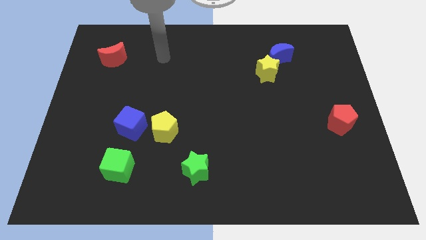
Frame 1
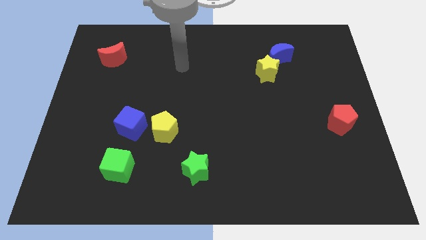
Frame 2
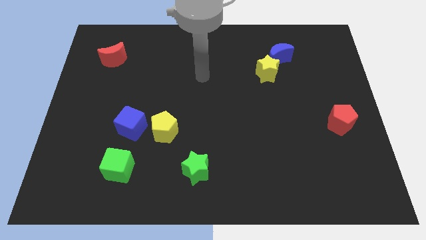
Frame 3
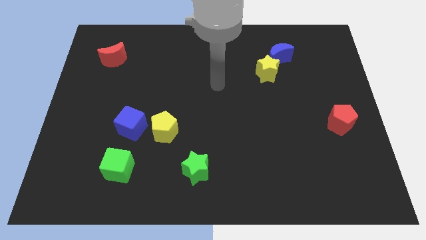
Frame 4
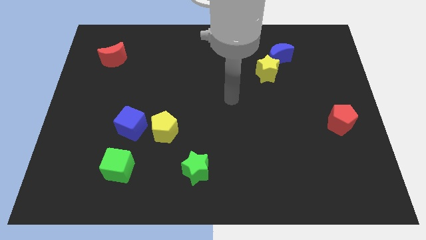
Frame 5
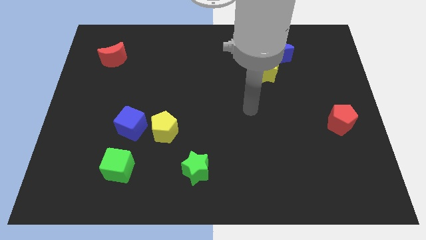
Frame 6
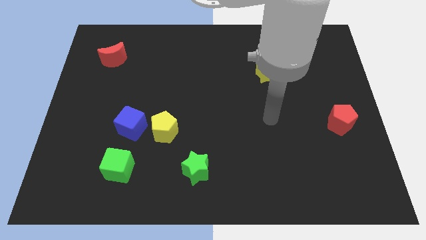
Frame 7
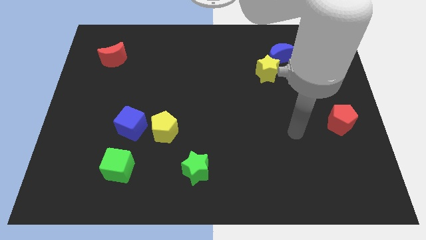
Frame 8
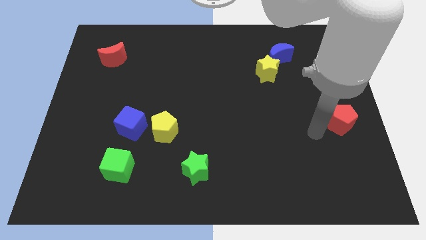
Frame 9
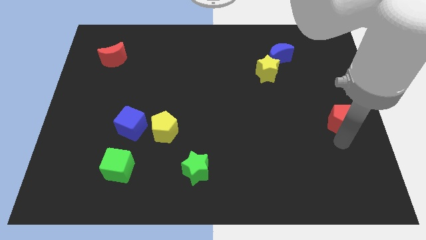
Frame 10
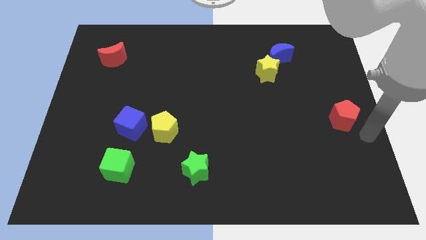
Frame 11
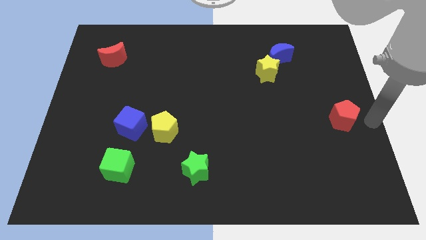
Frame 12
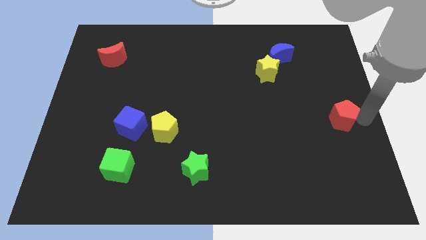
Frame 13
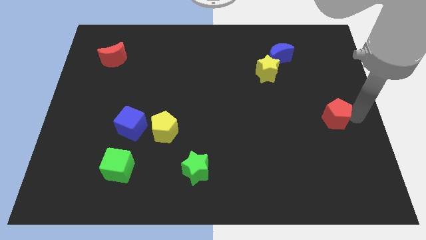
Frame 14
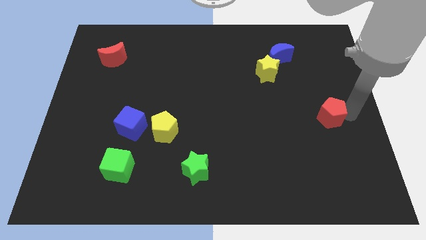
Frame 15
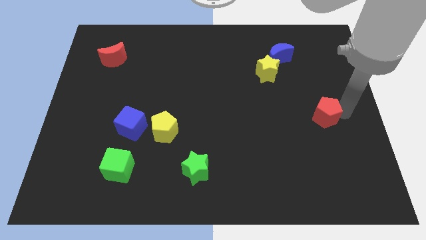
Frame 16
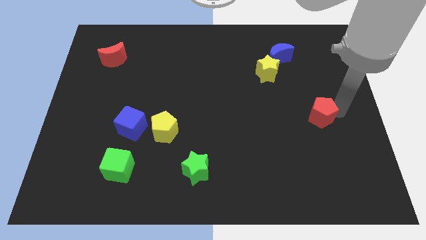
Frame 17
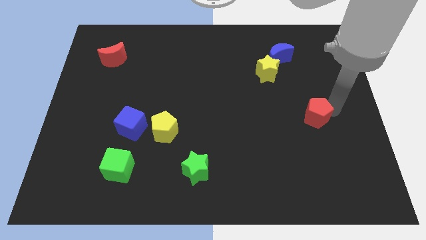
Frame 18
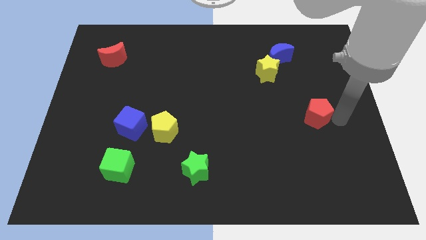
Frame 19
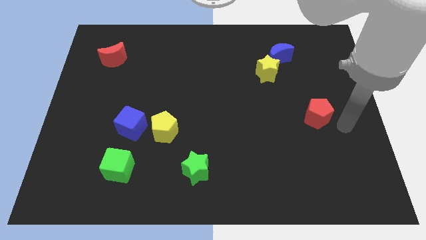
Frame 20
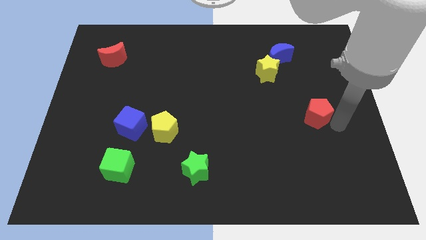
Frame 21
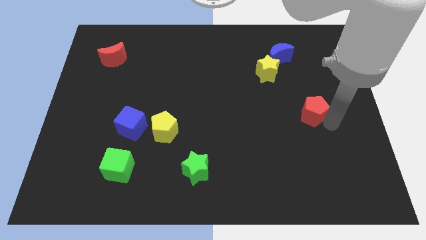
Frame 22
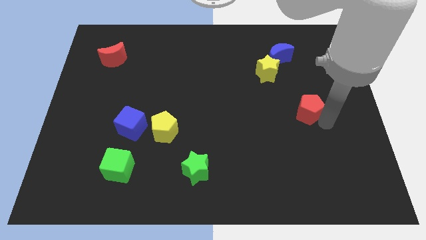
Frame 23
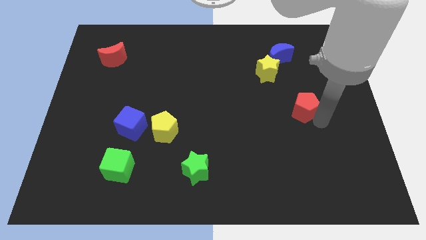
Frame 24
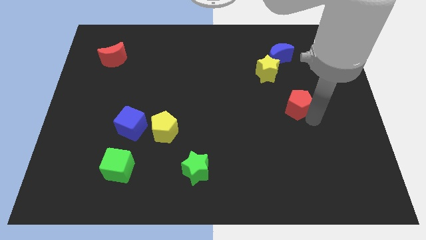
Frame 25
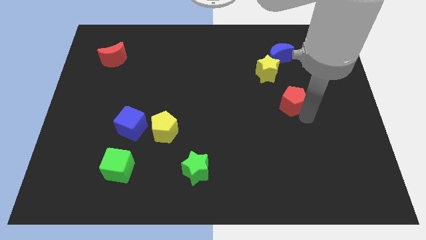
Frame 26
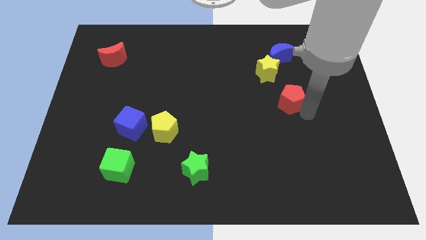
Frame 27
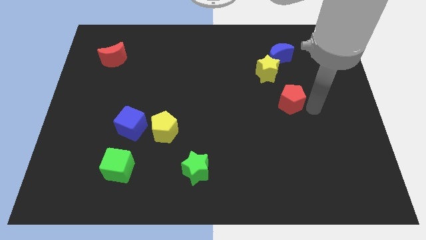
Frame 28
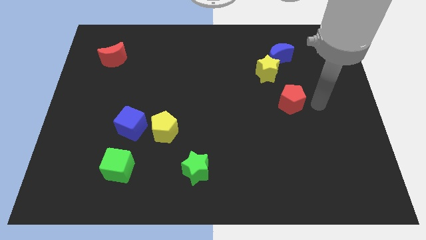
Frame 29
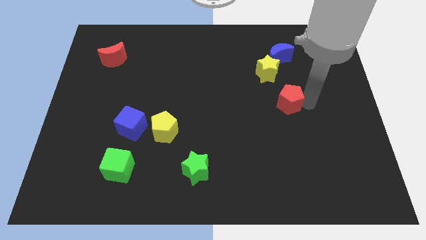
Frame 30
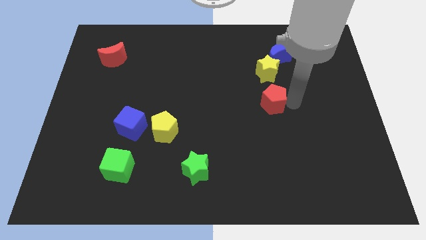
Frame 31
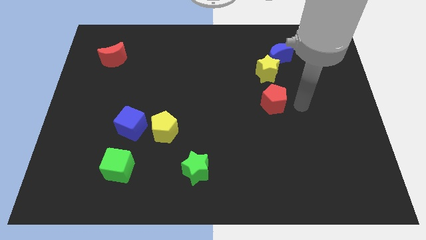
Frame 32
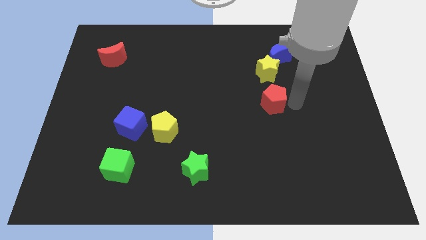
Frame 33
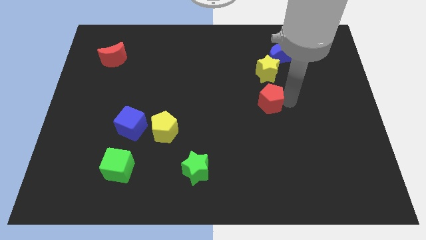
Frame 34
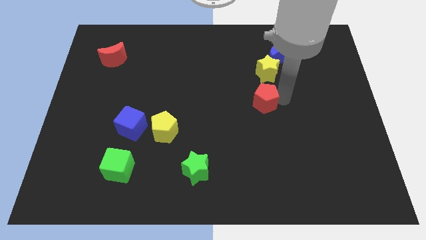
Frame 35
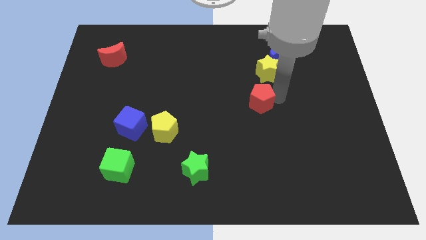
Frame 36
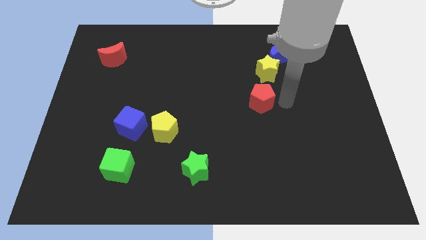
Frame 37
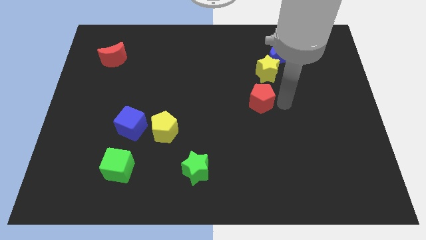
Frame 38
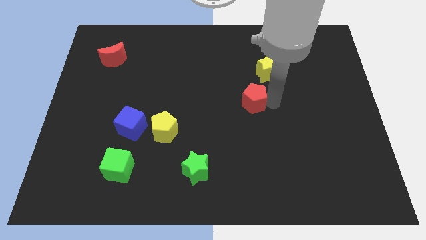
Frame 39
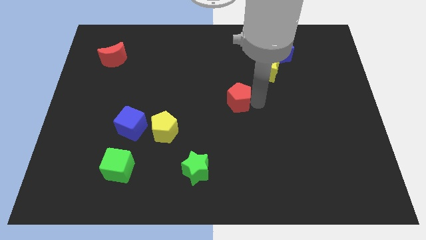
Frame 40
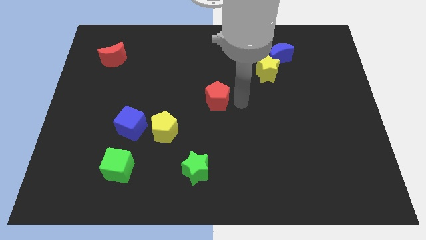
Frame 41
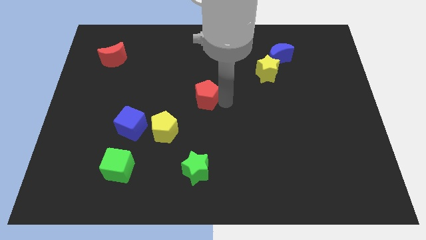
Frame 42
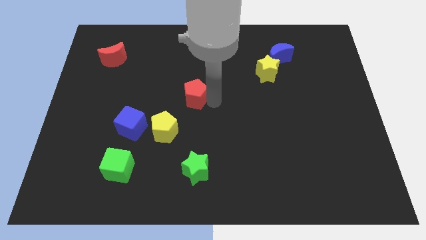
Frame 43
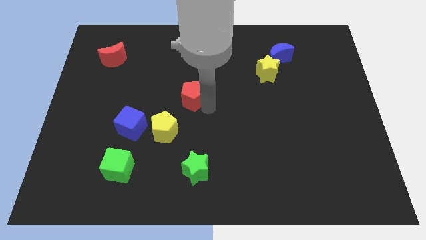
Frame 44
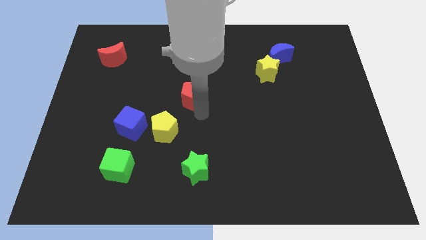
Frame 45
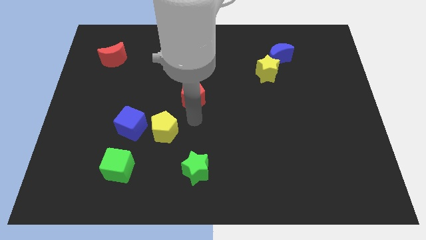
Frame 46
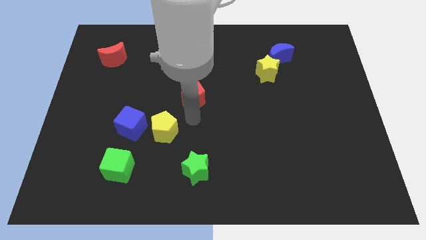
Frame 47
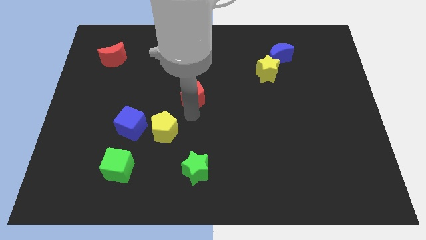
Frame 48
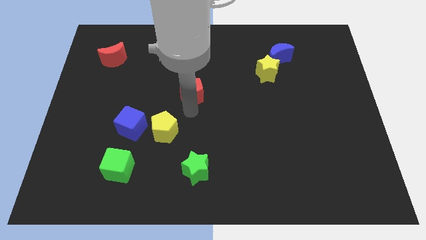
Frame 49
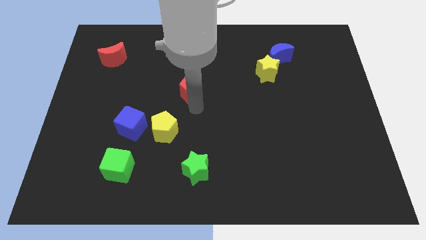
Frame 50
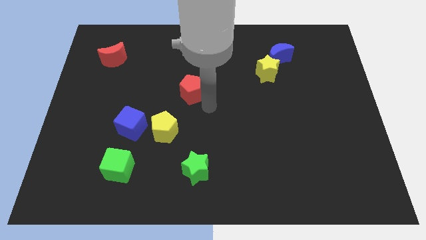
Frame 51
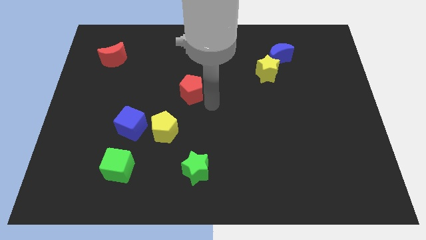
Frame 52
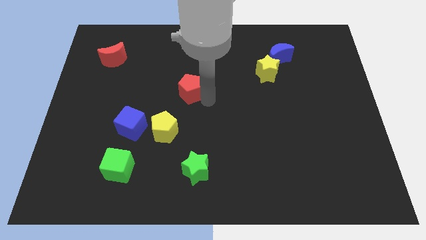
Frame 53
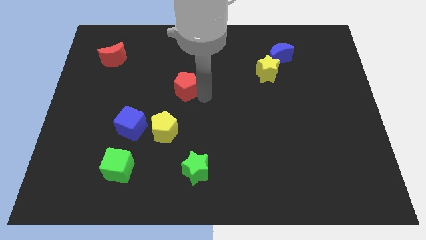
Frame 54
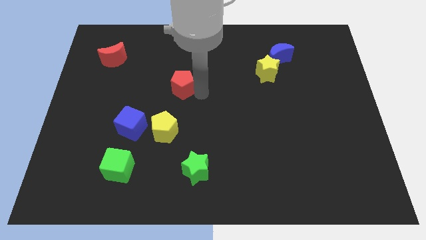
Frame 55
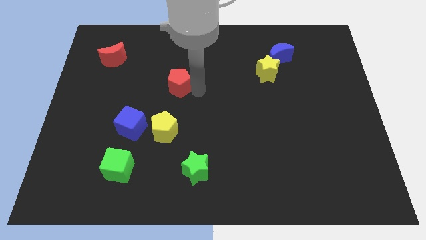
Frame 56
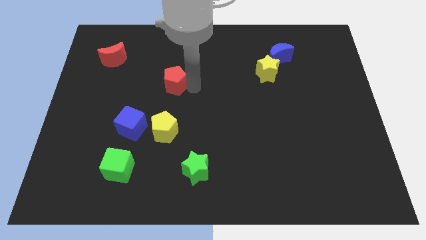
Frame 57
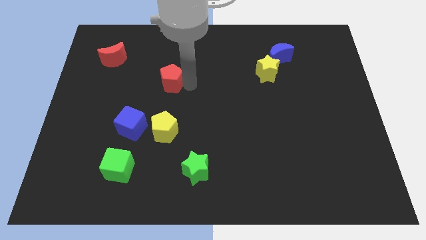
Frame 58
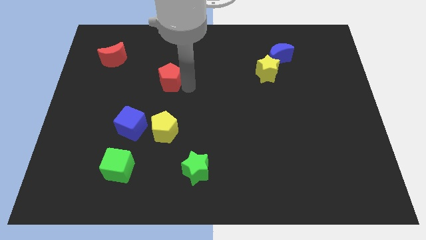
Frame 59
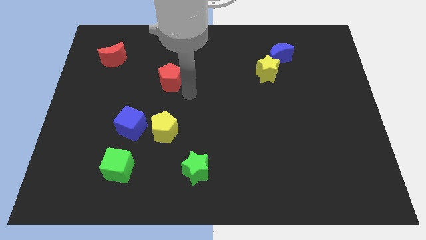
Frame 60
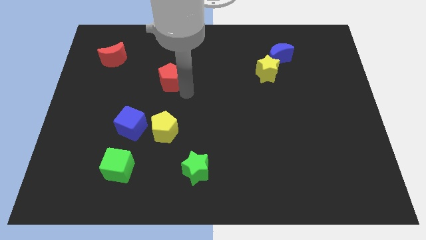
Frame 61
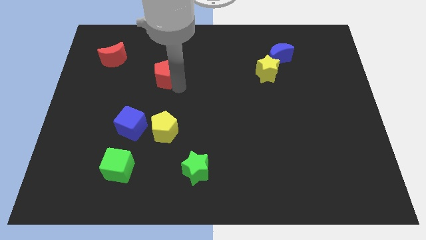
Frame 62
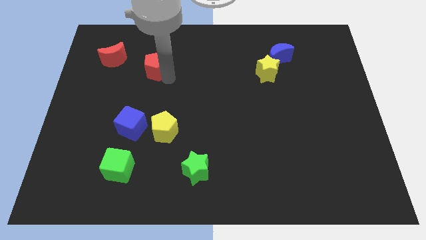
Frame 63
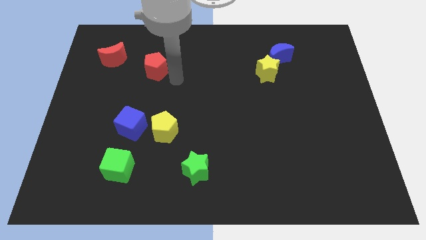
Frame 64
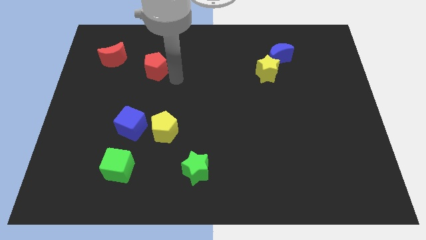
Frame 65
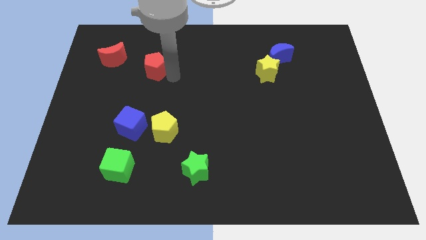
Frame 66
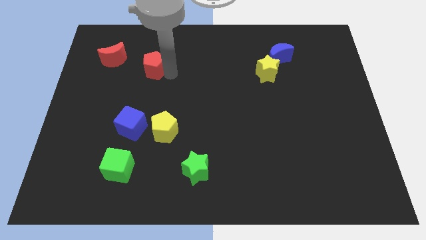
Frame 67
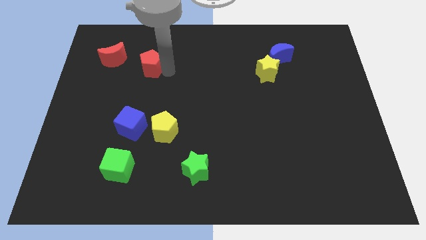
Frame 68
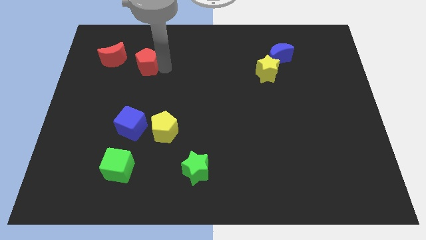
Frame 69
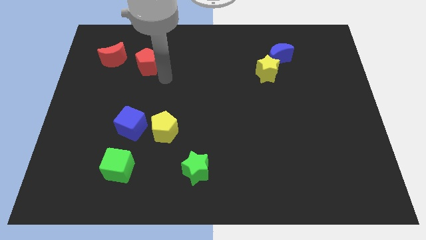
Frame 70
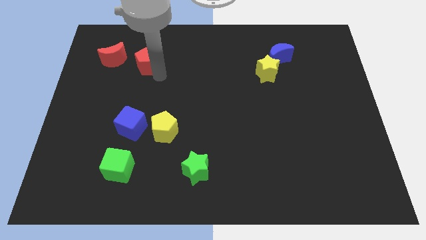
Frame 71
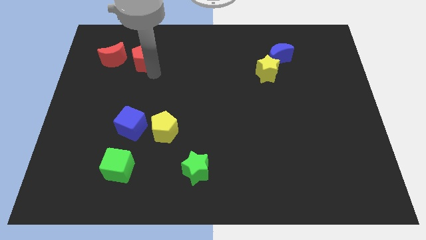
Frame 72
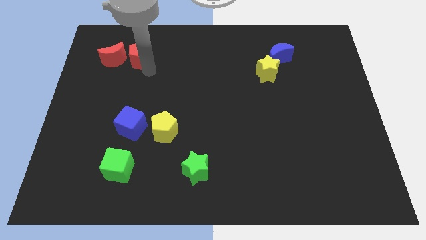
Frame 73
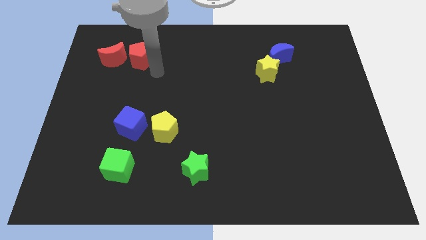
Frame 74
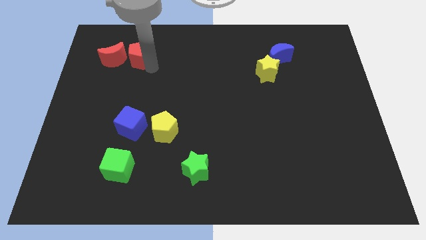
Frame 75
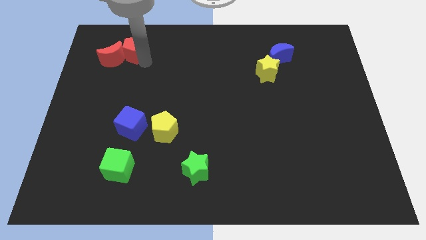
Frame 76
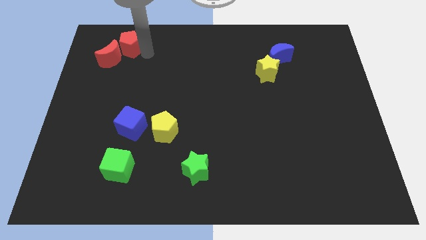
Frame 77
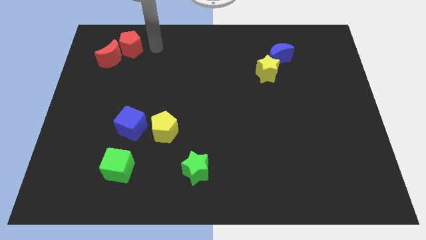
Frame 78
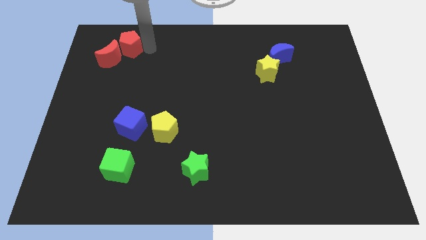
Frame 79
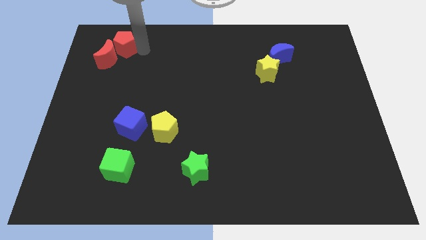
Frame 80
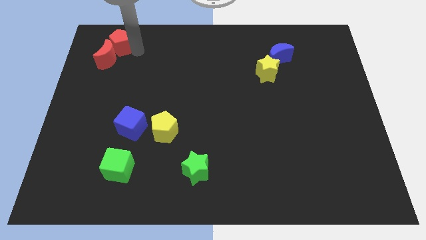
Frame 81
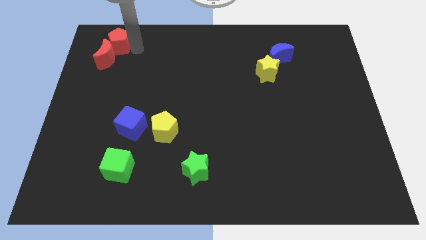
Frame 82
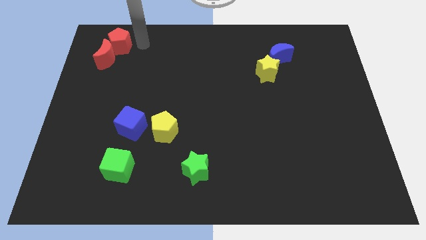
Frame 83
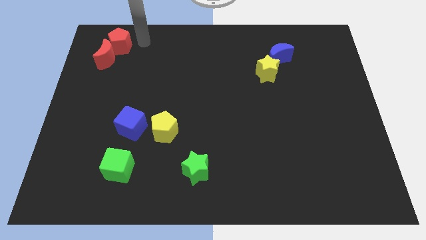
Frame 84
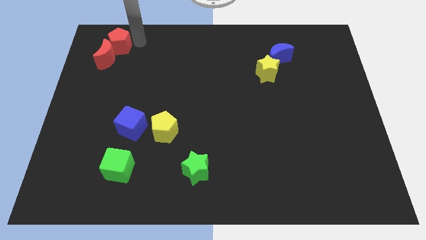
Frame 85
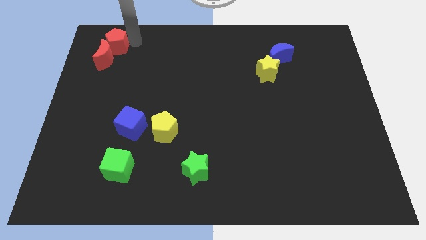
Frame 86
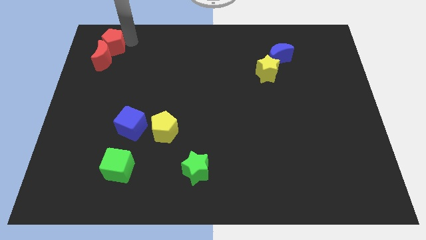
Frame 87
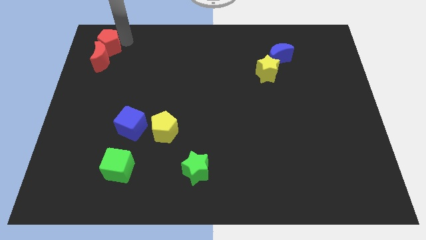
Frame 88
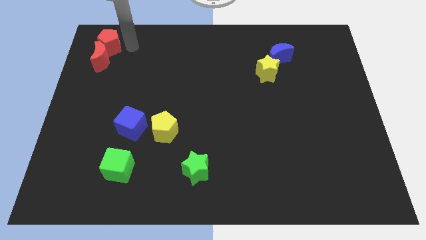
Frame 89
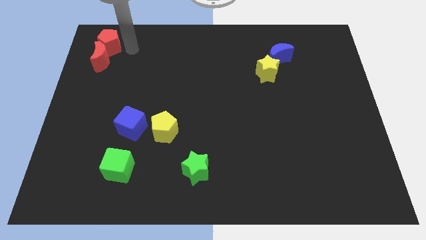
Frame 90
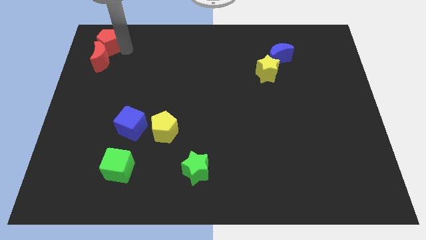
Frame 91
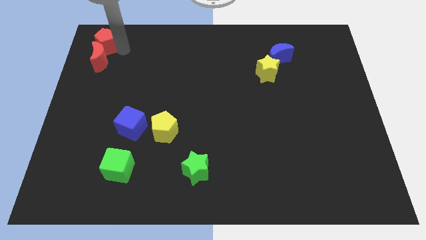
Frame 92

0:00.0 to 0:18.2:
put the red pentagon to the top left
